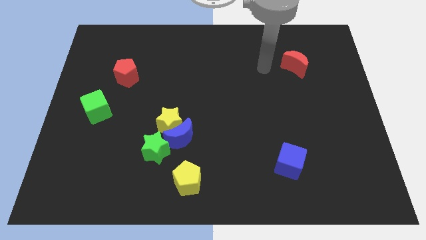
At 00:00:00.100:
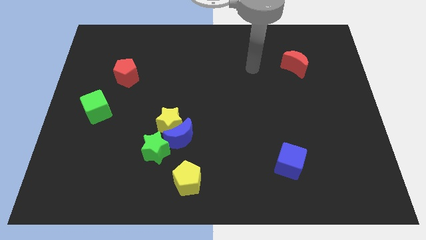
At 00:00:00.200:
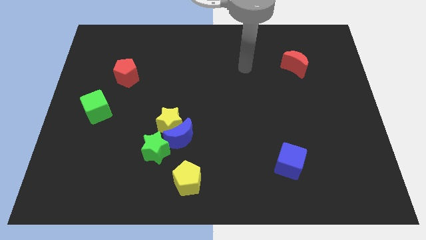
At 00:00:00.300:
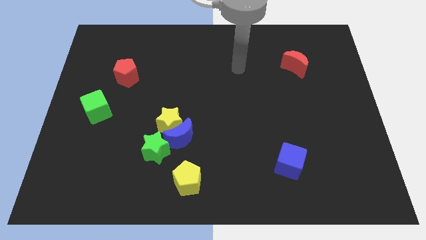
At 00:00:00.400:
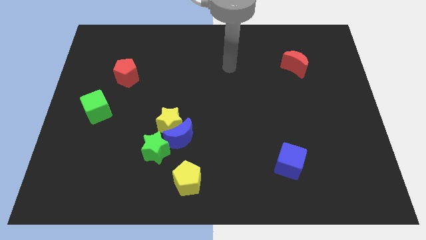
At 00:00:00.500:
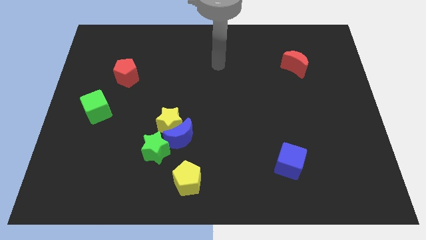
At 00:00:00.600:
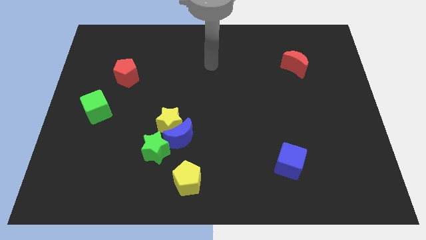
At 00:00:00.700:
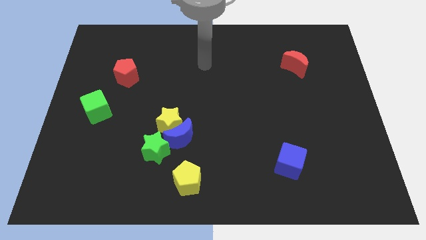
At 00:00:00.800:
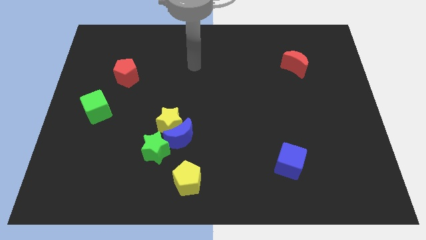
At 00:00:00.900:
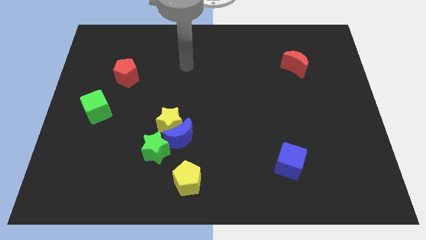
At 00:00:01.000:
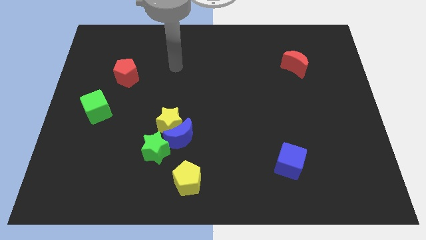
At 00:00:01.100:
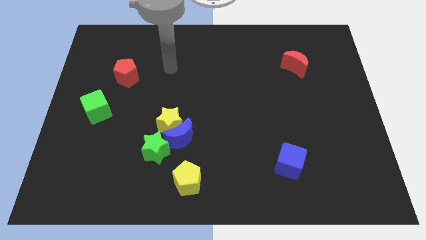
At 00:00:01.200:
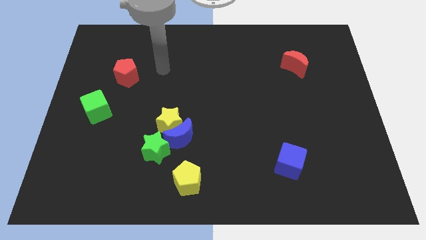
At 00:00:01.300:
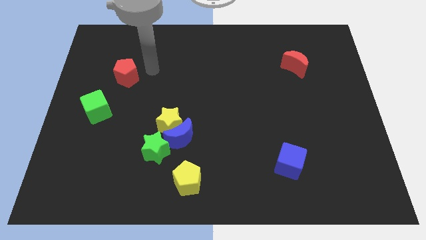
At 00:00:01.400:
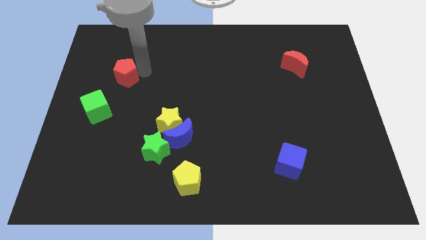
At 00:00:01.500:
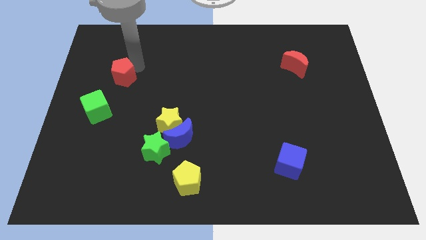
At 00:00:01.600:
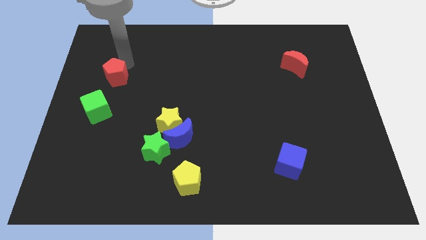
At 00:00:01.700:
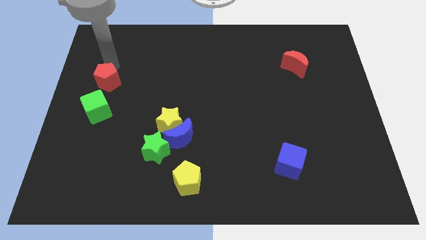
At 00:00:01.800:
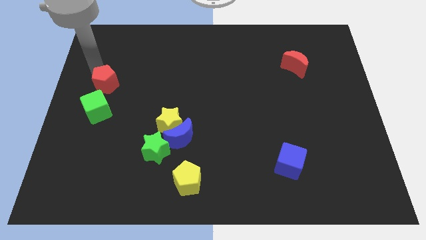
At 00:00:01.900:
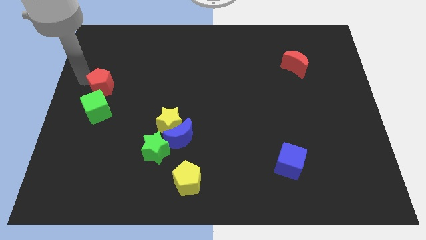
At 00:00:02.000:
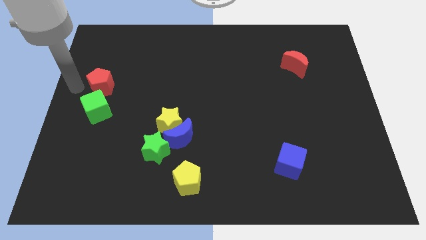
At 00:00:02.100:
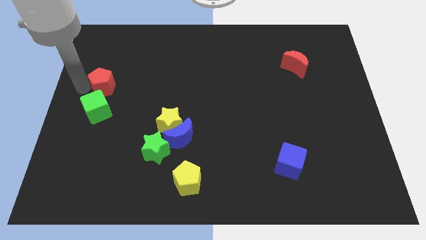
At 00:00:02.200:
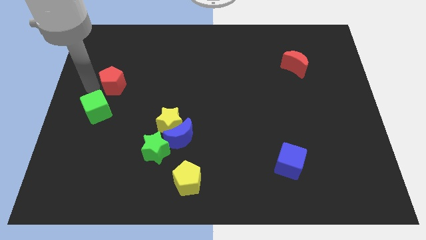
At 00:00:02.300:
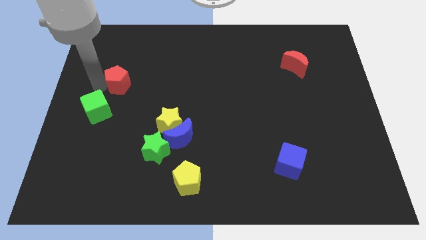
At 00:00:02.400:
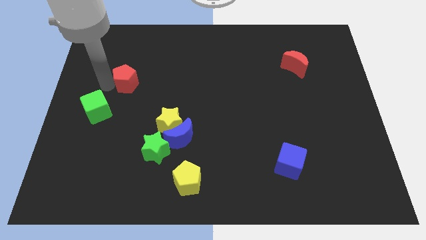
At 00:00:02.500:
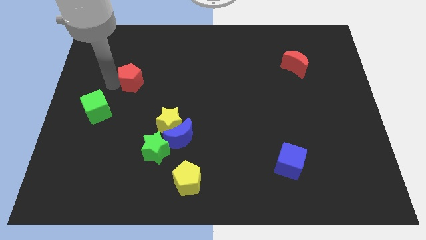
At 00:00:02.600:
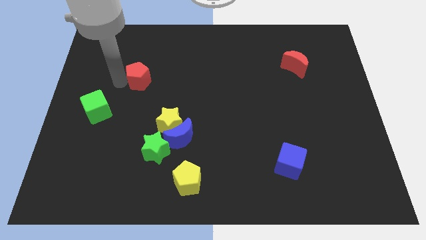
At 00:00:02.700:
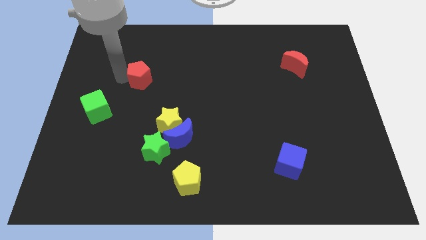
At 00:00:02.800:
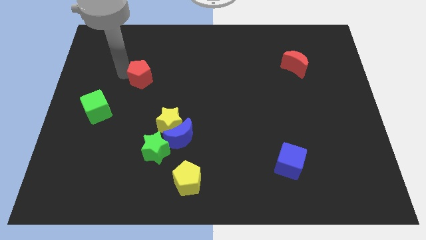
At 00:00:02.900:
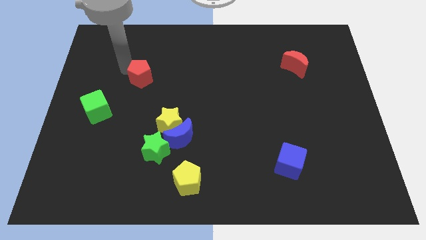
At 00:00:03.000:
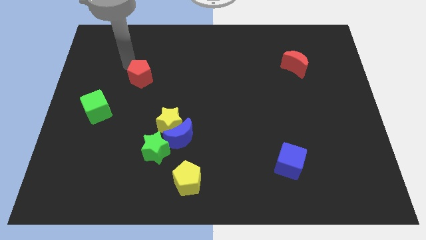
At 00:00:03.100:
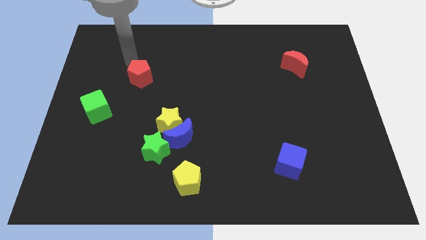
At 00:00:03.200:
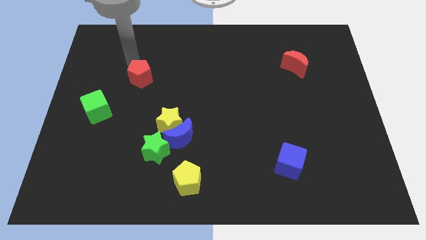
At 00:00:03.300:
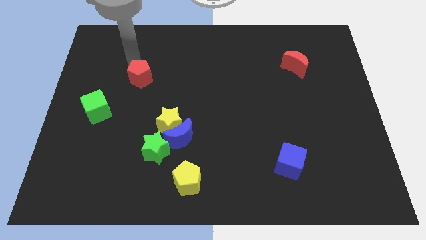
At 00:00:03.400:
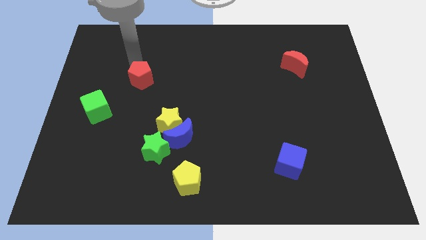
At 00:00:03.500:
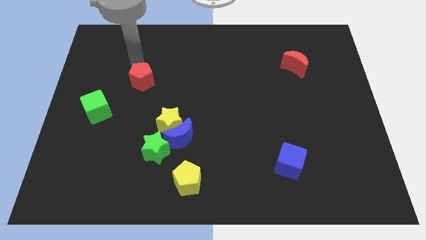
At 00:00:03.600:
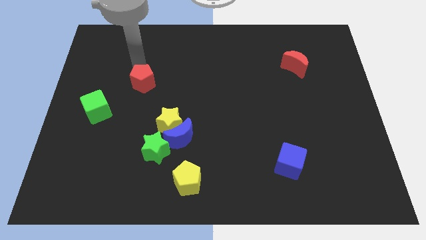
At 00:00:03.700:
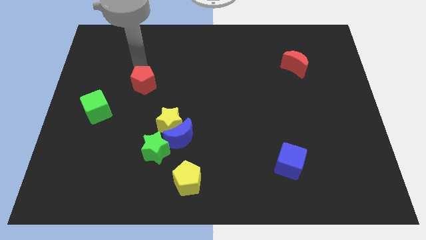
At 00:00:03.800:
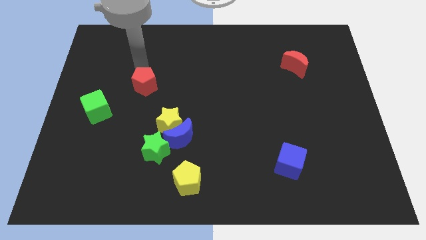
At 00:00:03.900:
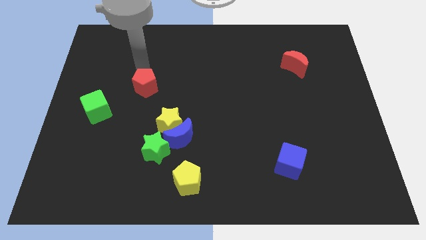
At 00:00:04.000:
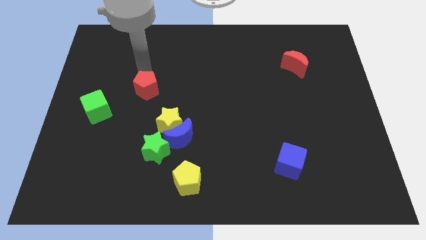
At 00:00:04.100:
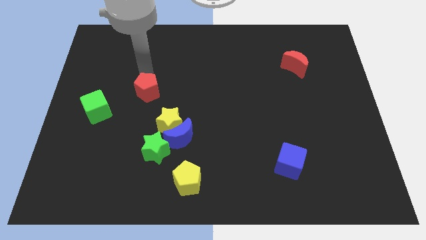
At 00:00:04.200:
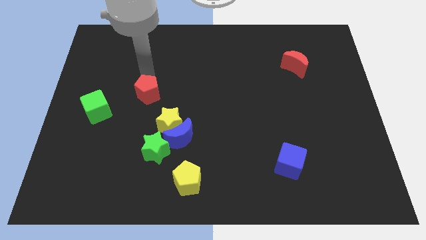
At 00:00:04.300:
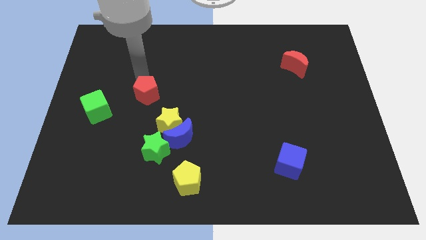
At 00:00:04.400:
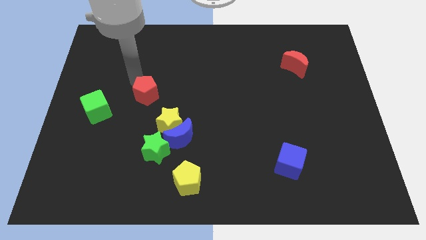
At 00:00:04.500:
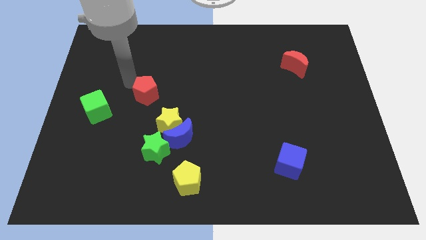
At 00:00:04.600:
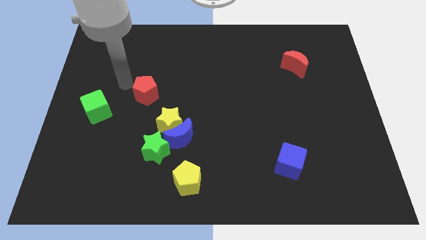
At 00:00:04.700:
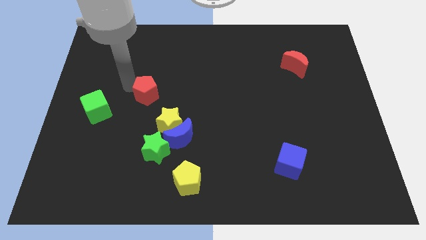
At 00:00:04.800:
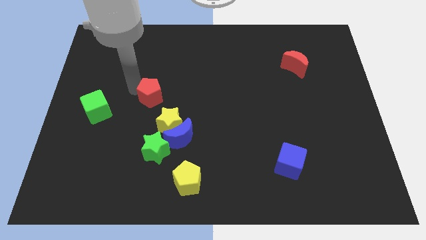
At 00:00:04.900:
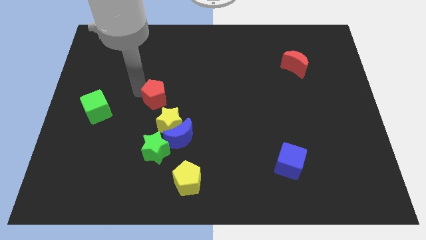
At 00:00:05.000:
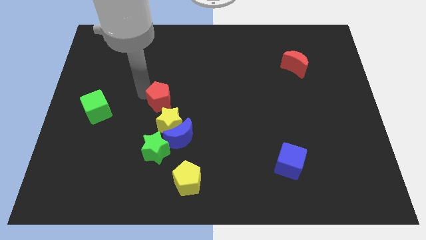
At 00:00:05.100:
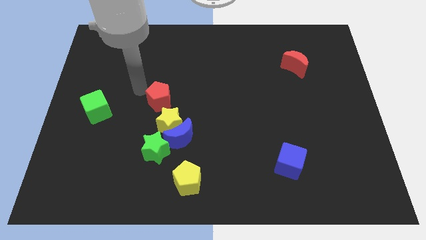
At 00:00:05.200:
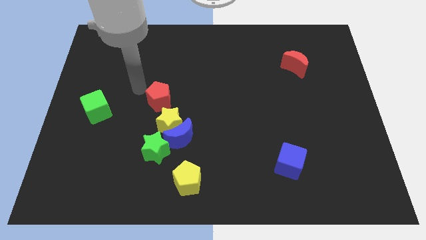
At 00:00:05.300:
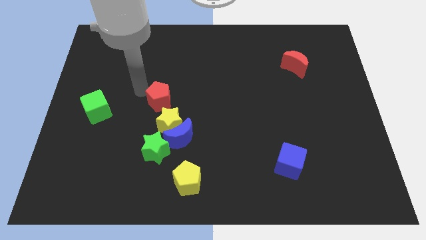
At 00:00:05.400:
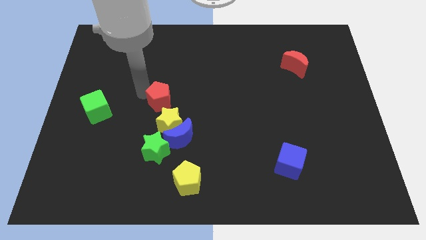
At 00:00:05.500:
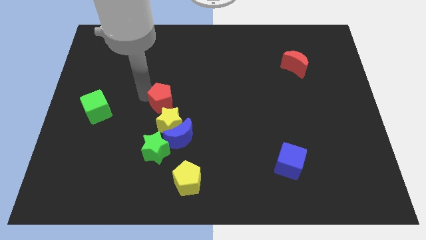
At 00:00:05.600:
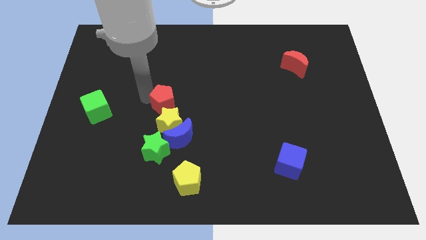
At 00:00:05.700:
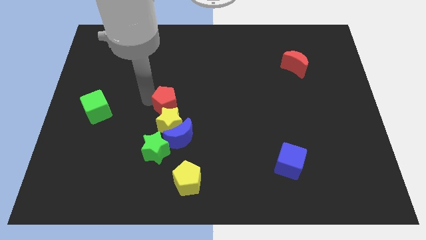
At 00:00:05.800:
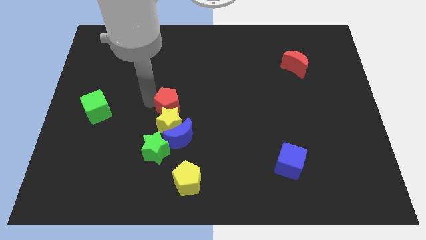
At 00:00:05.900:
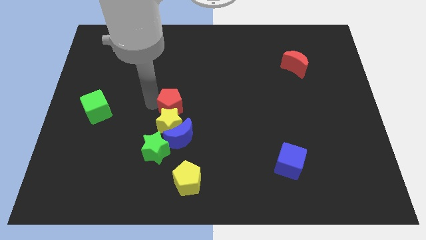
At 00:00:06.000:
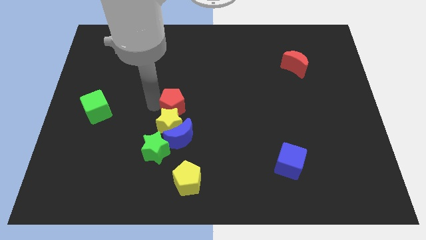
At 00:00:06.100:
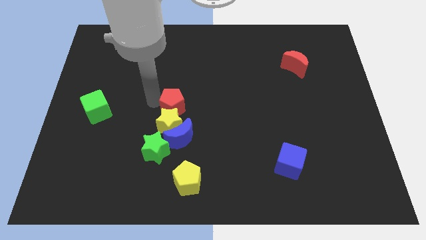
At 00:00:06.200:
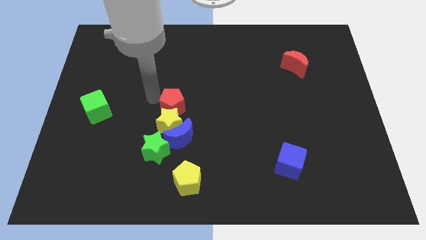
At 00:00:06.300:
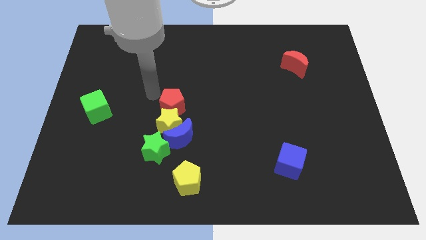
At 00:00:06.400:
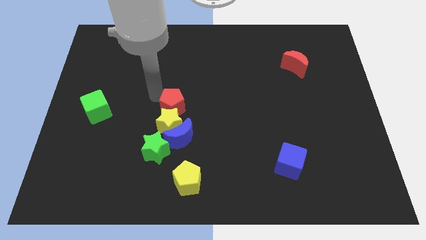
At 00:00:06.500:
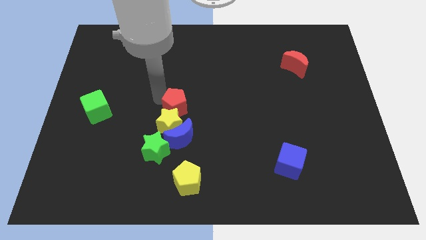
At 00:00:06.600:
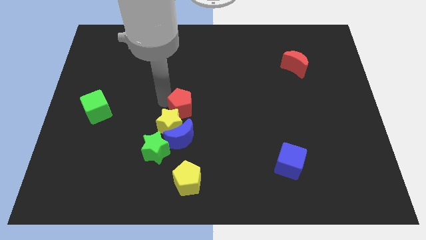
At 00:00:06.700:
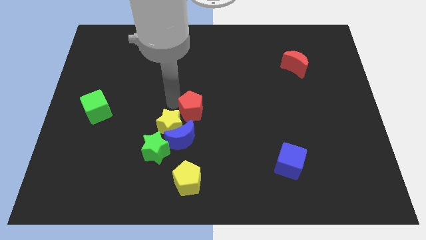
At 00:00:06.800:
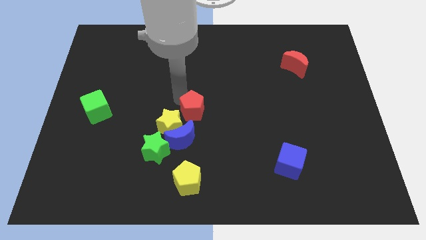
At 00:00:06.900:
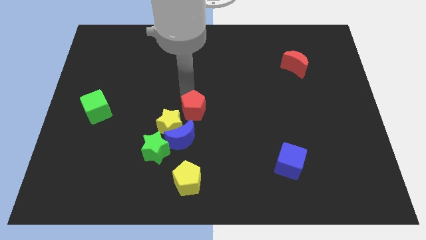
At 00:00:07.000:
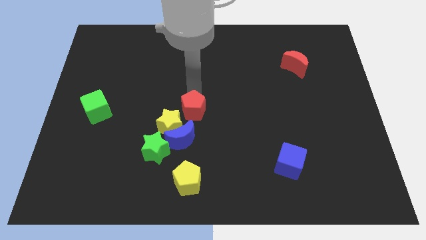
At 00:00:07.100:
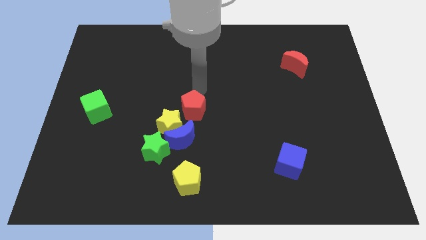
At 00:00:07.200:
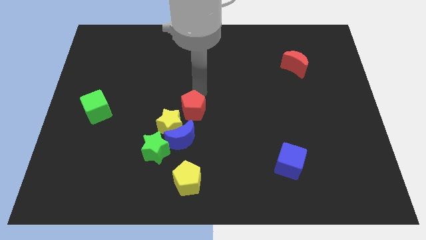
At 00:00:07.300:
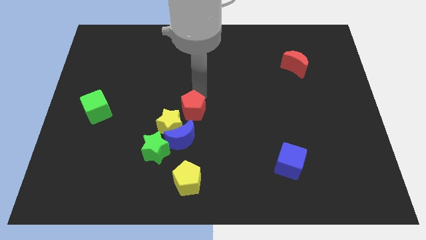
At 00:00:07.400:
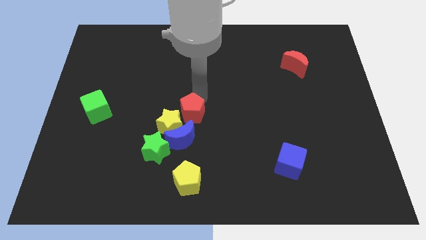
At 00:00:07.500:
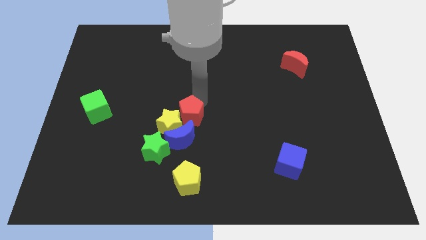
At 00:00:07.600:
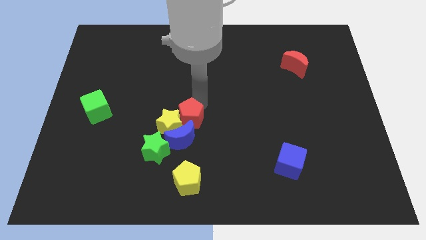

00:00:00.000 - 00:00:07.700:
put the red pentagon to the blue moon

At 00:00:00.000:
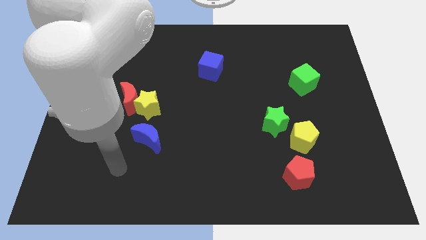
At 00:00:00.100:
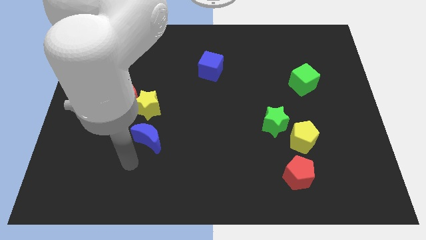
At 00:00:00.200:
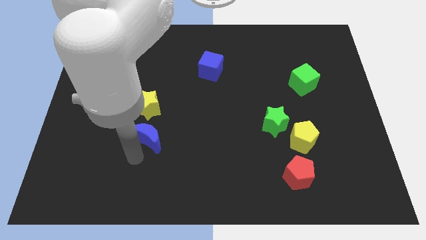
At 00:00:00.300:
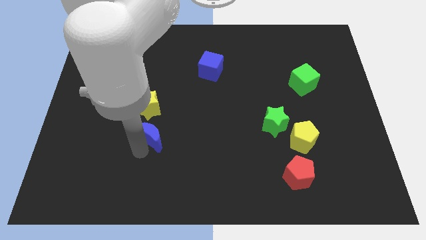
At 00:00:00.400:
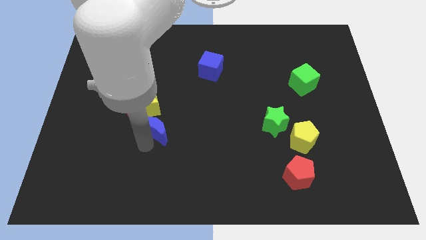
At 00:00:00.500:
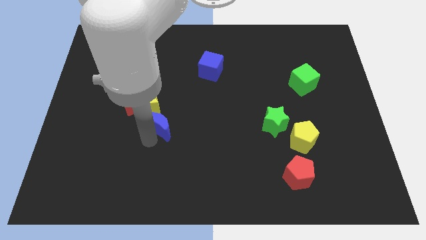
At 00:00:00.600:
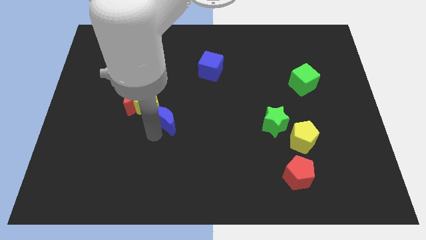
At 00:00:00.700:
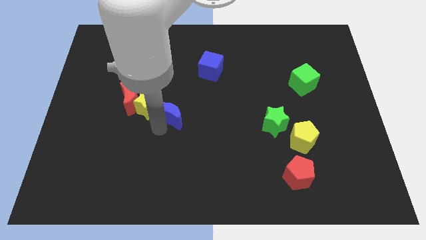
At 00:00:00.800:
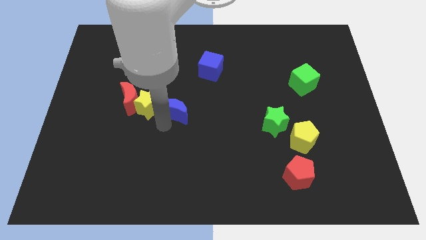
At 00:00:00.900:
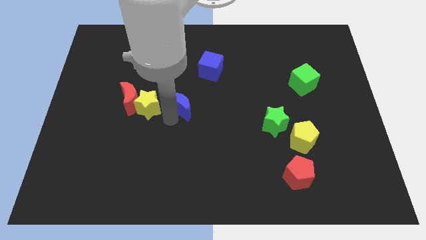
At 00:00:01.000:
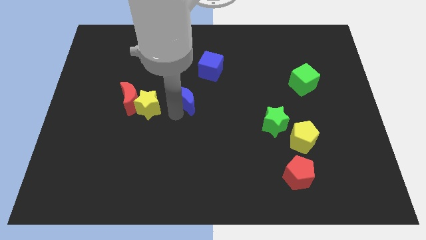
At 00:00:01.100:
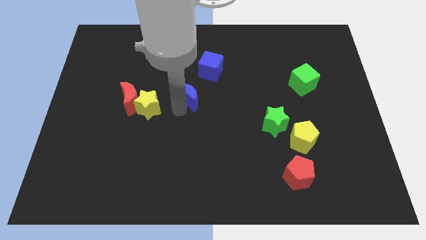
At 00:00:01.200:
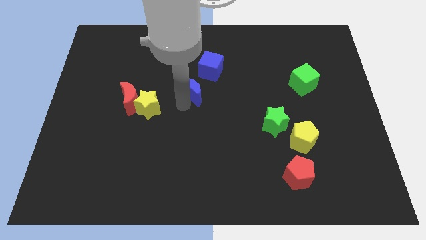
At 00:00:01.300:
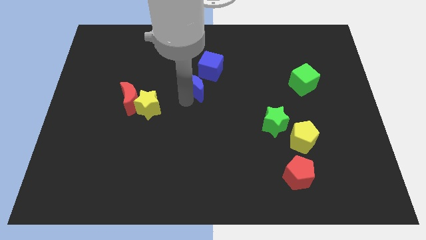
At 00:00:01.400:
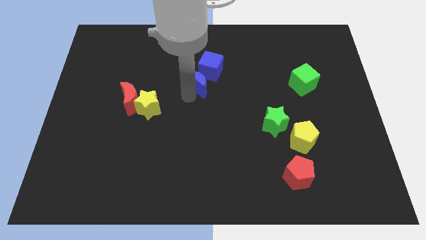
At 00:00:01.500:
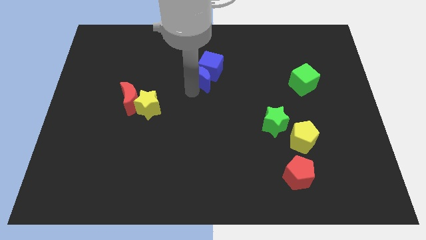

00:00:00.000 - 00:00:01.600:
slide the blue moon next to the blue cube
